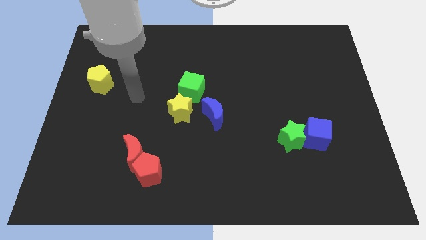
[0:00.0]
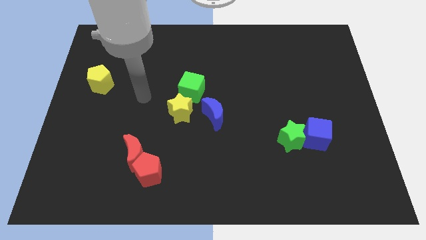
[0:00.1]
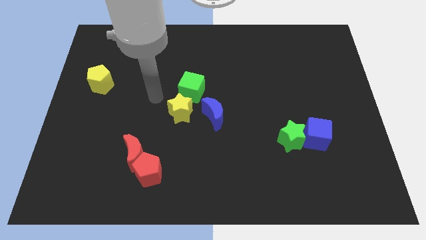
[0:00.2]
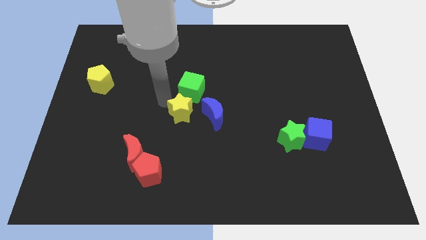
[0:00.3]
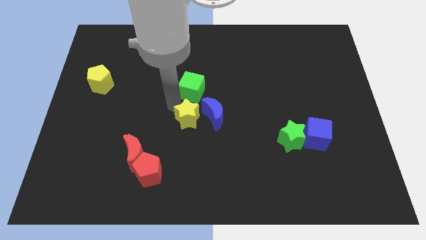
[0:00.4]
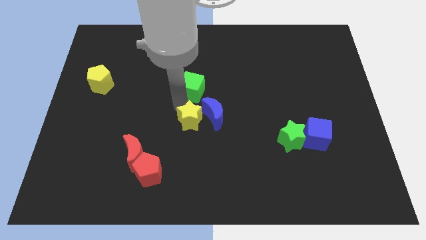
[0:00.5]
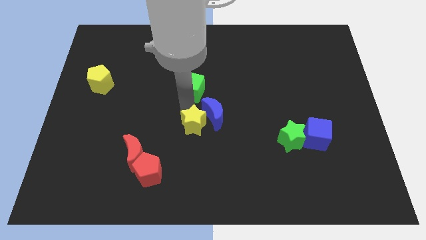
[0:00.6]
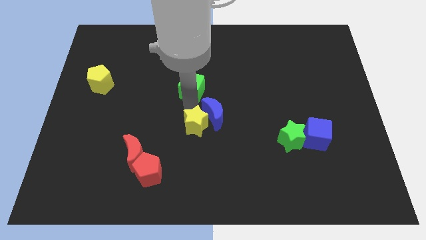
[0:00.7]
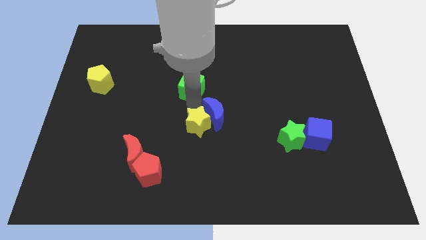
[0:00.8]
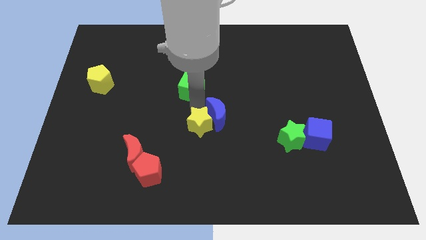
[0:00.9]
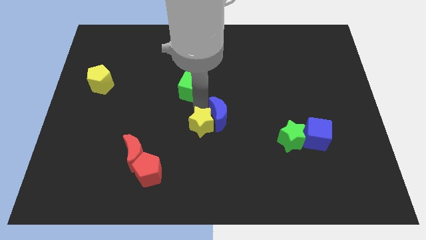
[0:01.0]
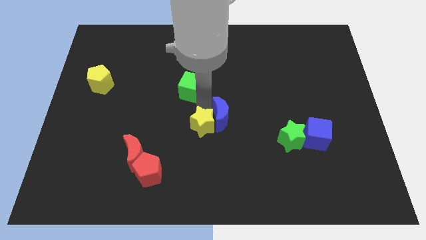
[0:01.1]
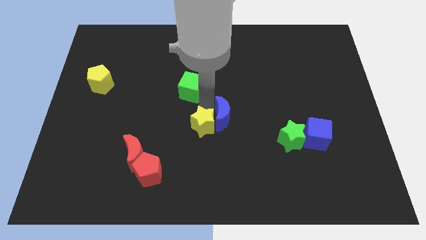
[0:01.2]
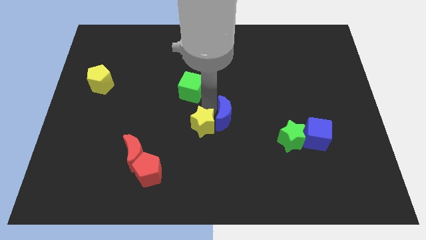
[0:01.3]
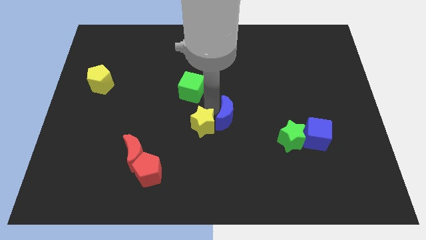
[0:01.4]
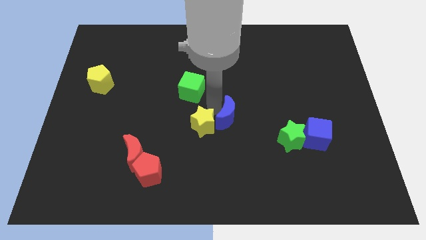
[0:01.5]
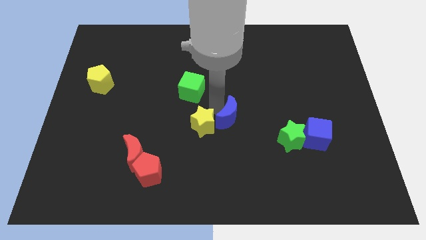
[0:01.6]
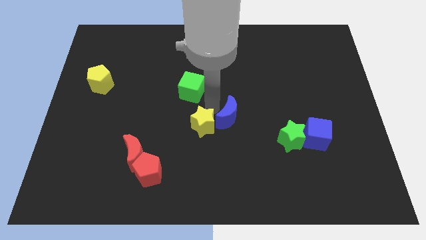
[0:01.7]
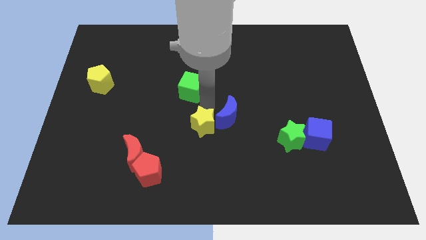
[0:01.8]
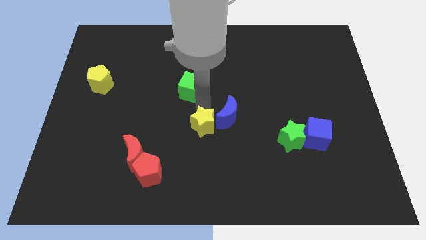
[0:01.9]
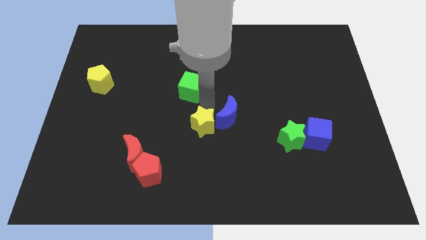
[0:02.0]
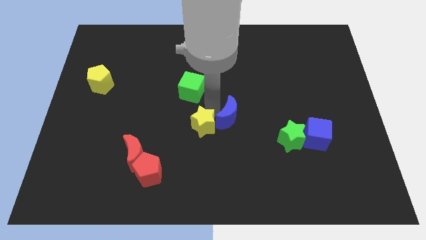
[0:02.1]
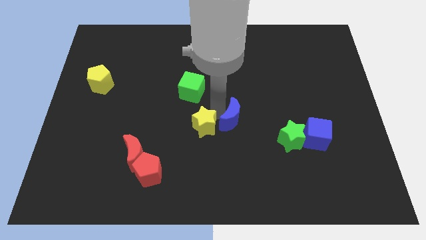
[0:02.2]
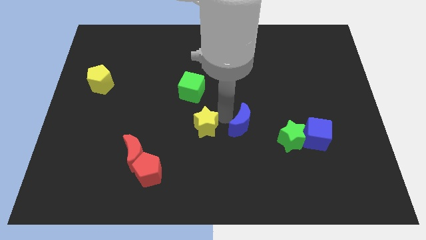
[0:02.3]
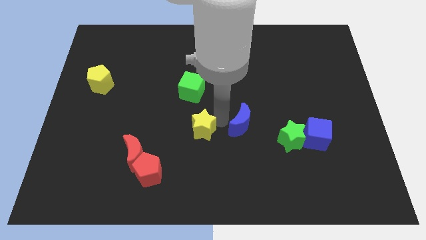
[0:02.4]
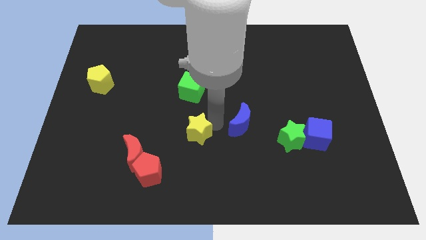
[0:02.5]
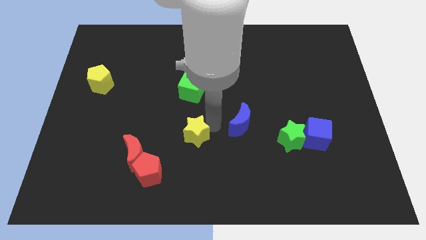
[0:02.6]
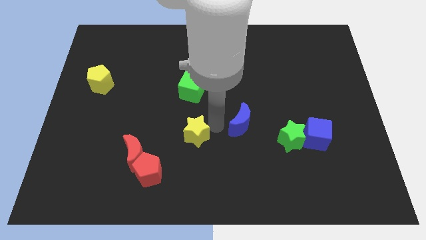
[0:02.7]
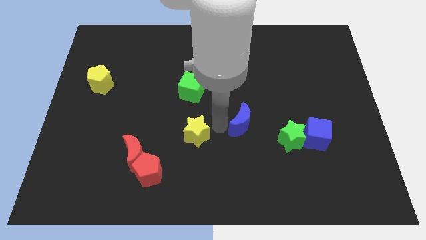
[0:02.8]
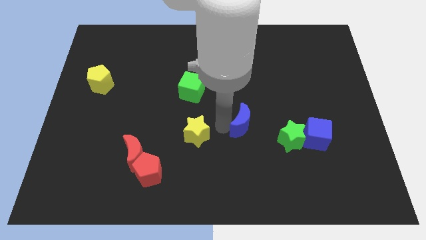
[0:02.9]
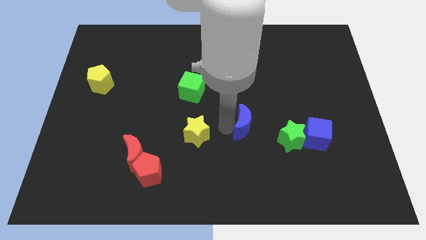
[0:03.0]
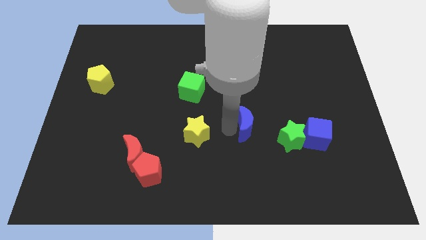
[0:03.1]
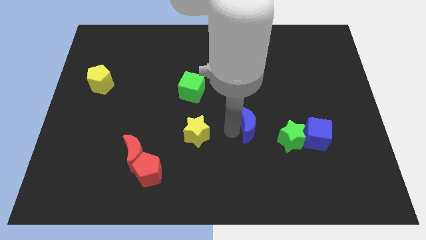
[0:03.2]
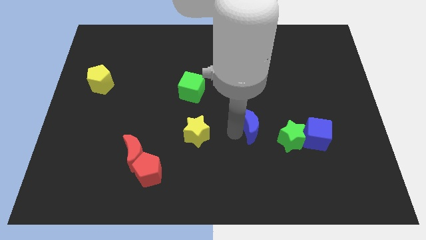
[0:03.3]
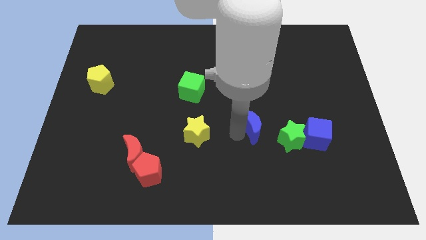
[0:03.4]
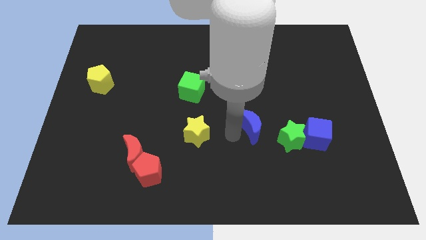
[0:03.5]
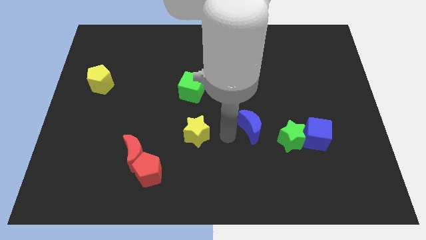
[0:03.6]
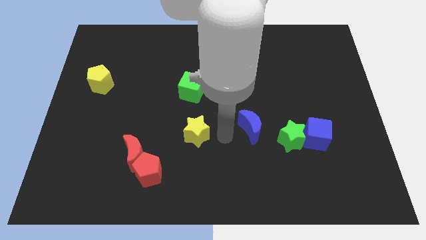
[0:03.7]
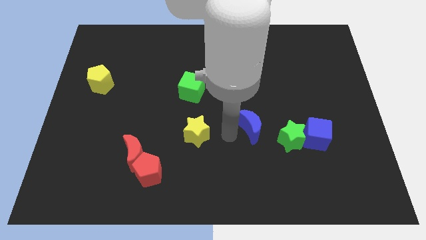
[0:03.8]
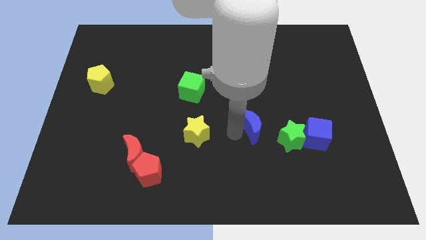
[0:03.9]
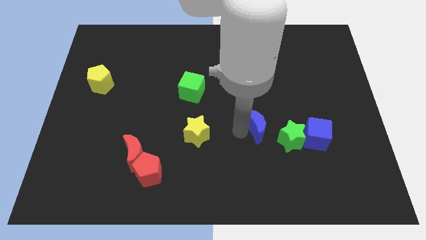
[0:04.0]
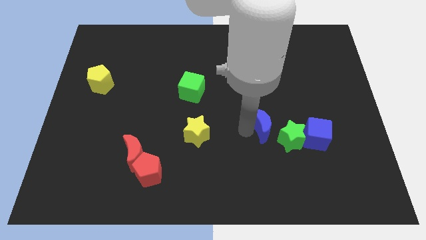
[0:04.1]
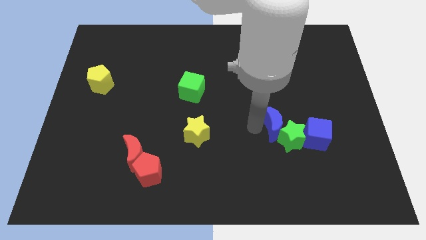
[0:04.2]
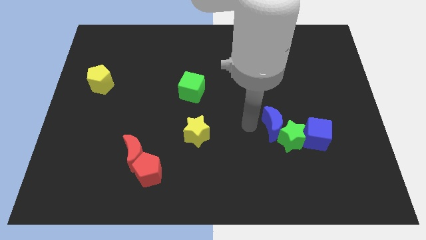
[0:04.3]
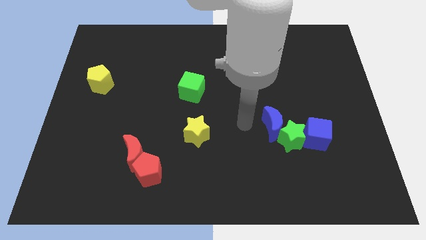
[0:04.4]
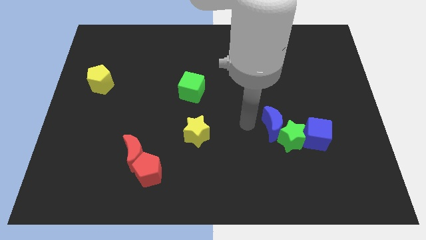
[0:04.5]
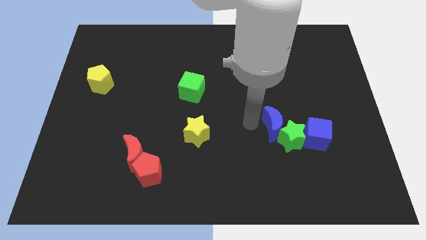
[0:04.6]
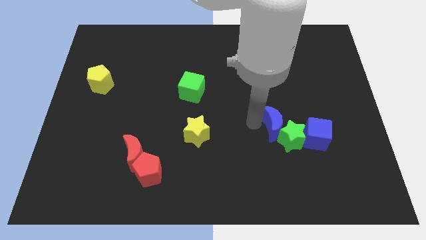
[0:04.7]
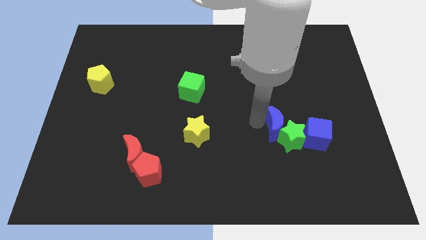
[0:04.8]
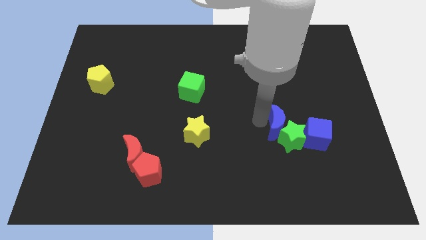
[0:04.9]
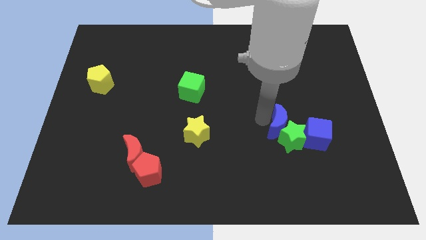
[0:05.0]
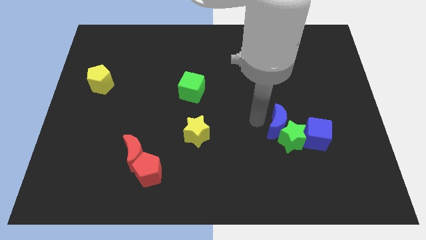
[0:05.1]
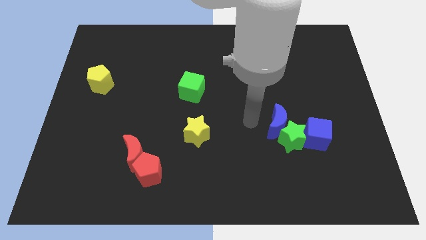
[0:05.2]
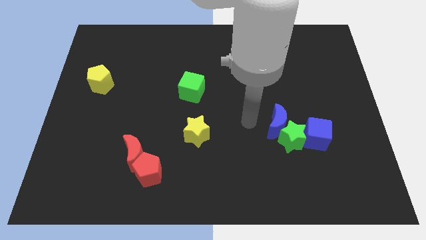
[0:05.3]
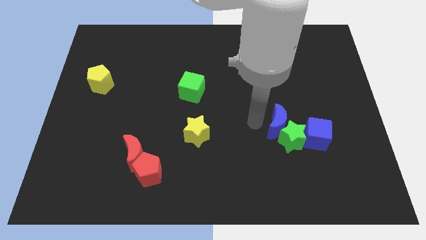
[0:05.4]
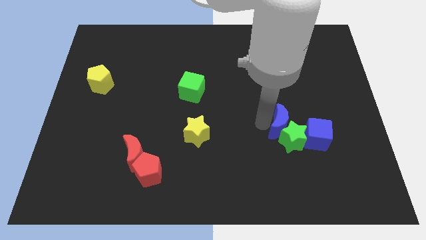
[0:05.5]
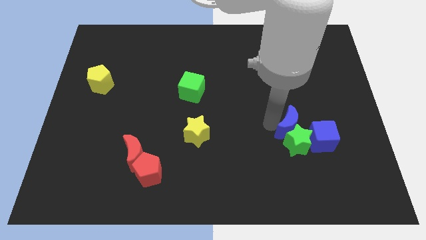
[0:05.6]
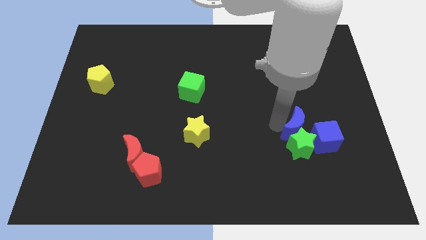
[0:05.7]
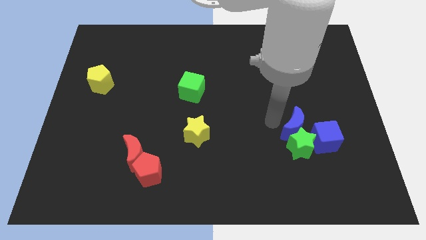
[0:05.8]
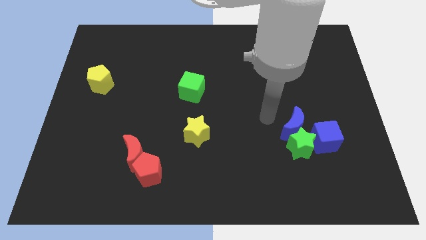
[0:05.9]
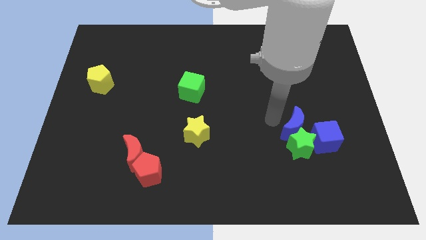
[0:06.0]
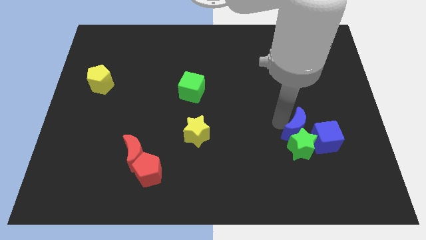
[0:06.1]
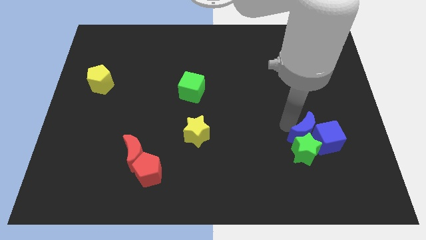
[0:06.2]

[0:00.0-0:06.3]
put the blue moon towards the blue cube
